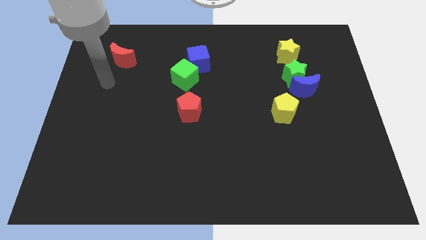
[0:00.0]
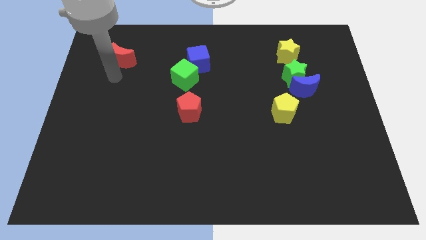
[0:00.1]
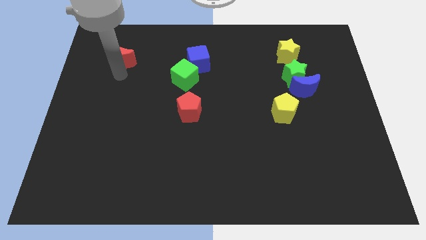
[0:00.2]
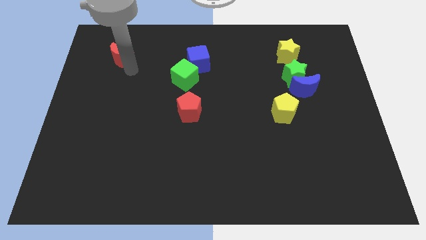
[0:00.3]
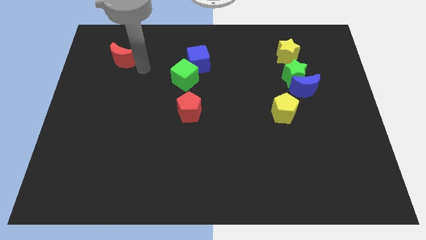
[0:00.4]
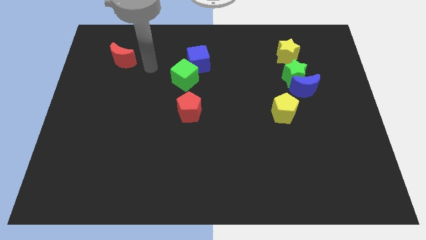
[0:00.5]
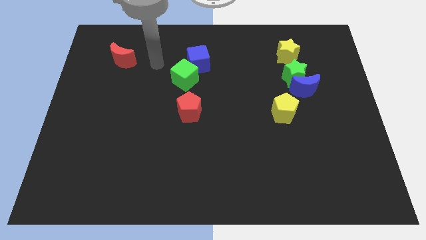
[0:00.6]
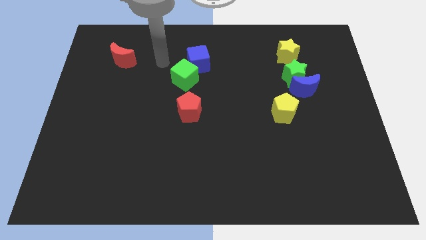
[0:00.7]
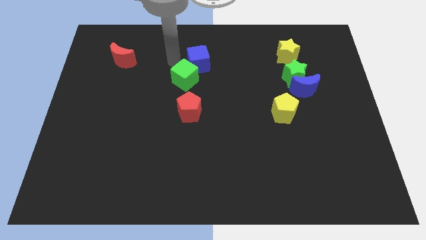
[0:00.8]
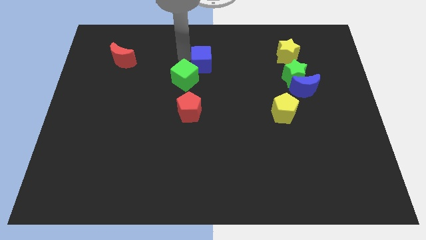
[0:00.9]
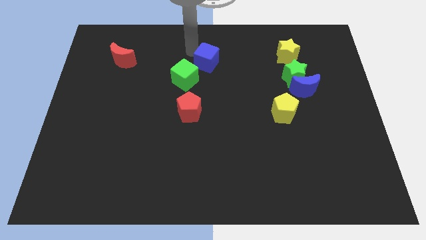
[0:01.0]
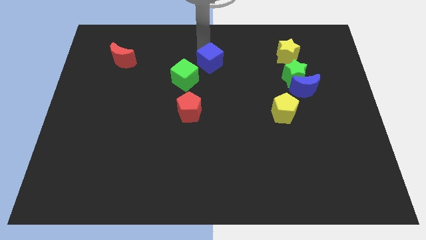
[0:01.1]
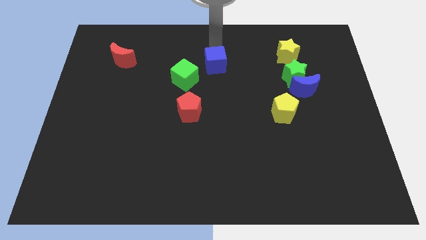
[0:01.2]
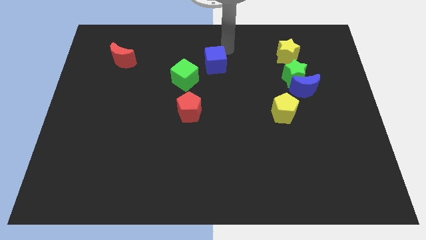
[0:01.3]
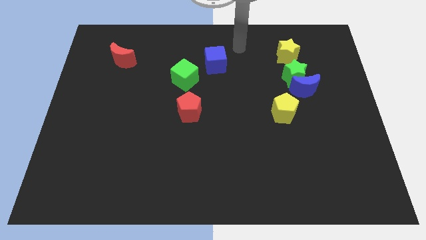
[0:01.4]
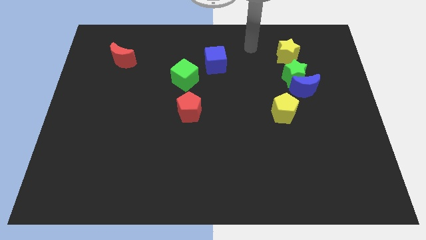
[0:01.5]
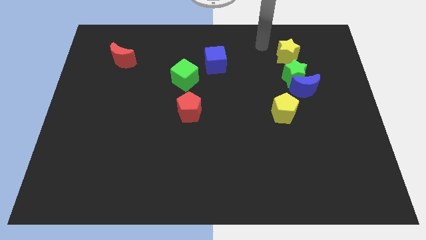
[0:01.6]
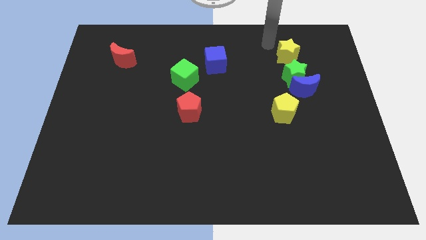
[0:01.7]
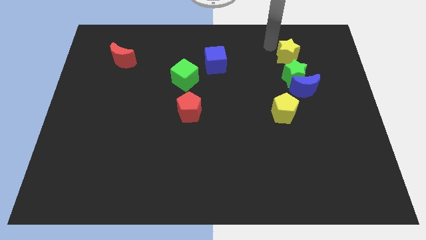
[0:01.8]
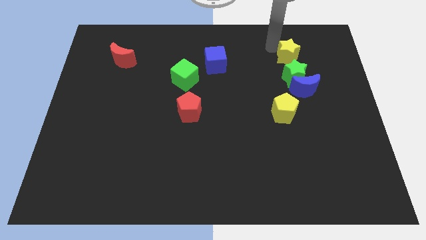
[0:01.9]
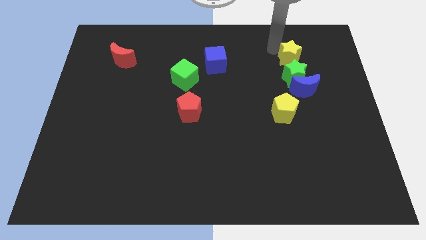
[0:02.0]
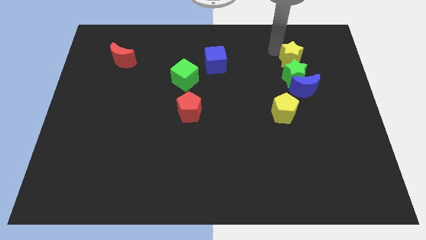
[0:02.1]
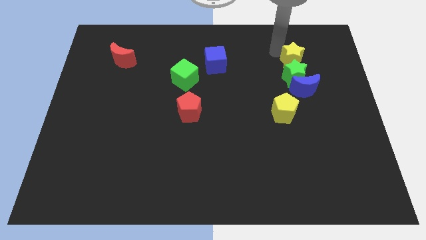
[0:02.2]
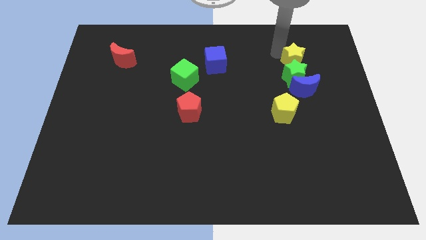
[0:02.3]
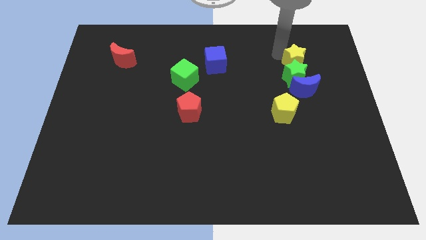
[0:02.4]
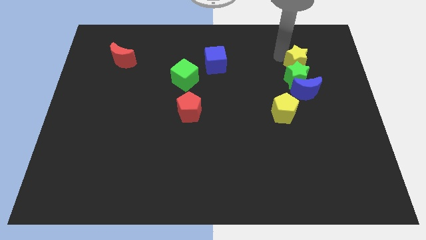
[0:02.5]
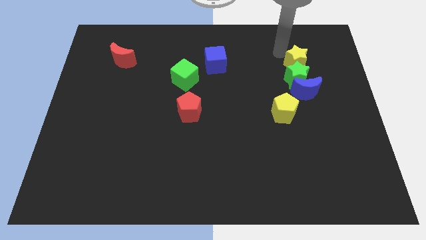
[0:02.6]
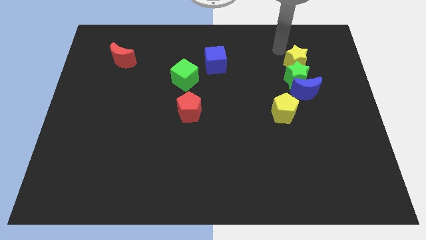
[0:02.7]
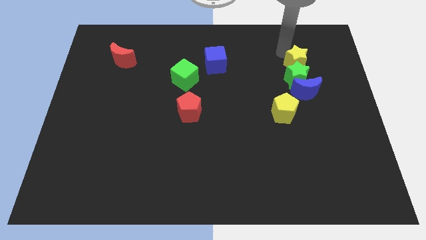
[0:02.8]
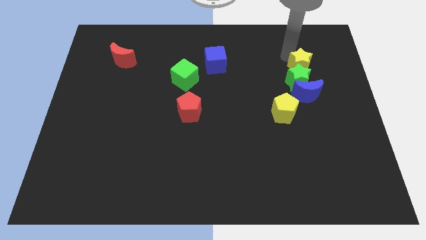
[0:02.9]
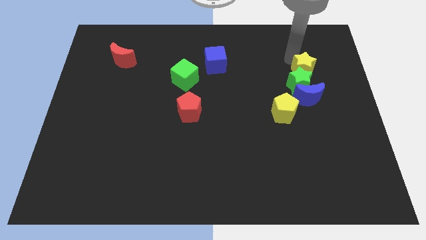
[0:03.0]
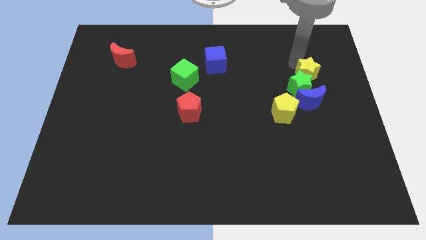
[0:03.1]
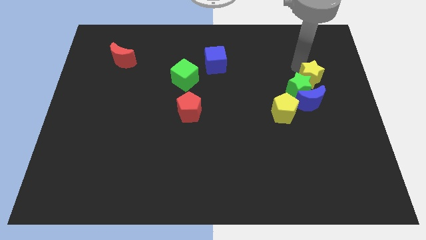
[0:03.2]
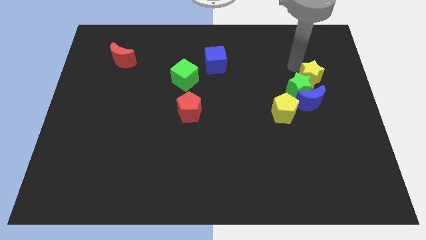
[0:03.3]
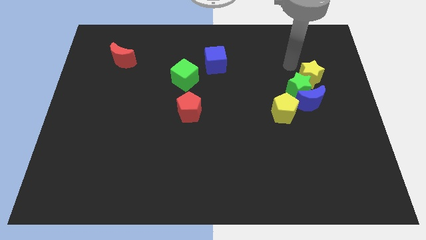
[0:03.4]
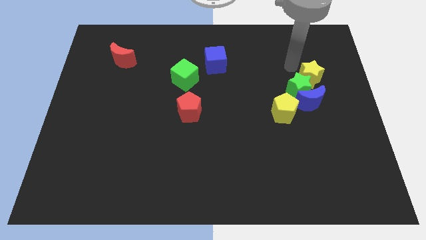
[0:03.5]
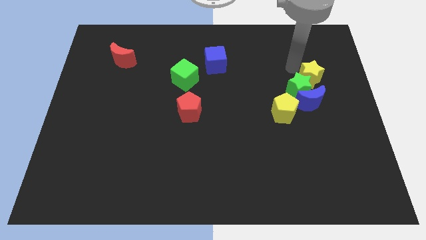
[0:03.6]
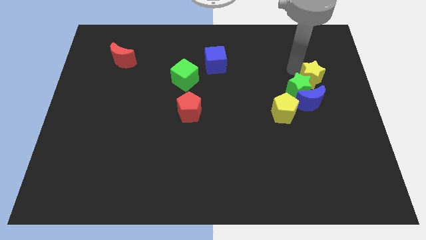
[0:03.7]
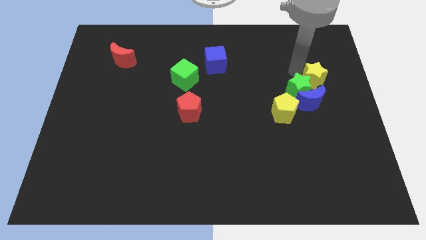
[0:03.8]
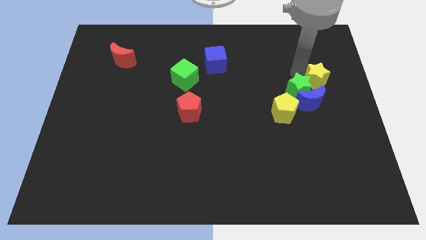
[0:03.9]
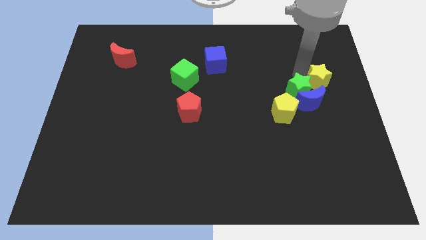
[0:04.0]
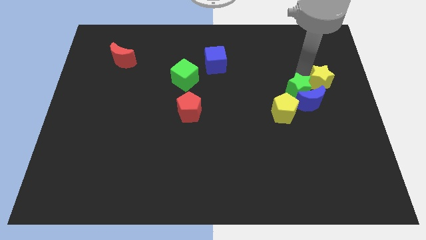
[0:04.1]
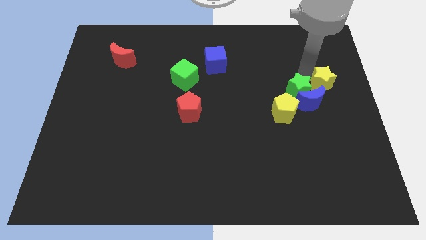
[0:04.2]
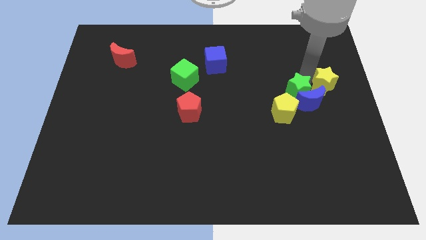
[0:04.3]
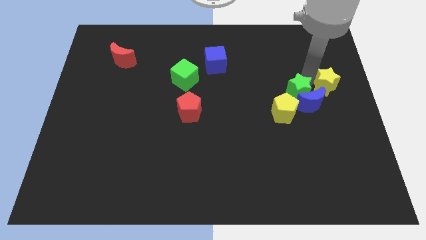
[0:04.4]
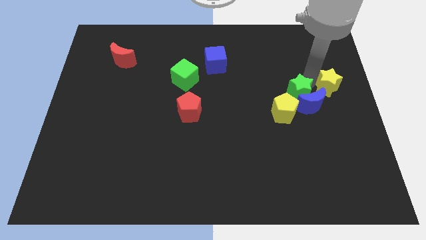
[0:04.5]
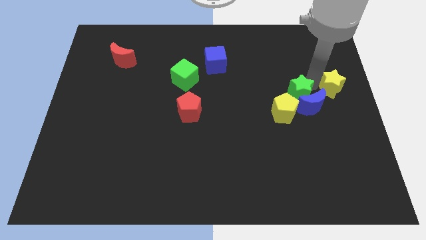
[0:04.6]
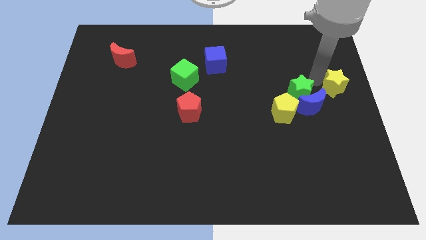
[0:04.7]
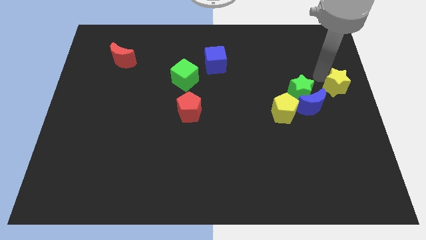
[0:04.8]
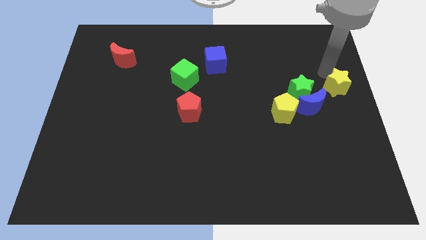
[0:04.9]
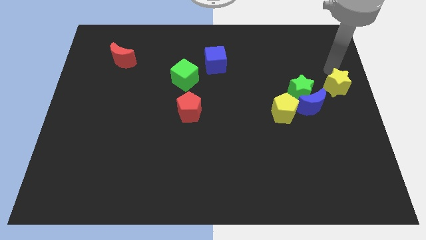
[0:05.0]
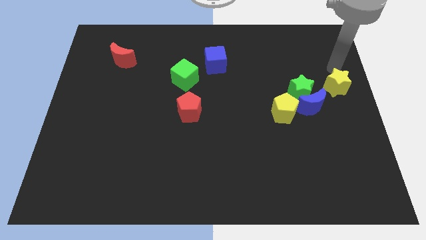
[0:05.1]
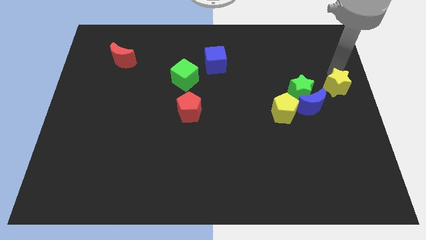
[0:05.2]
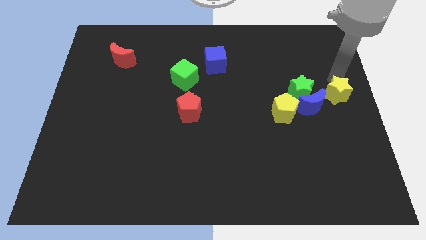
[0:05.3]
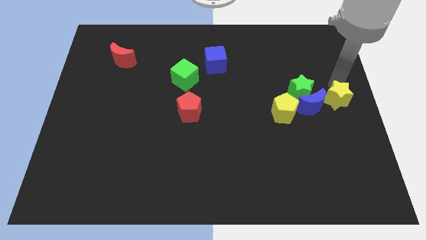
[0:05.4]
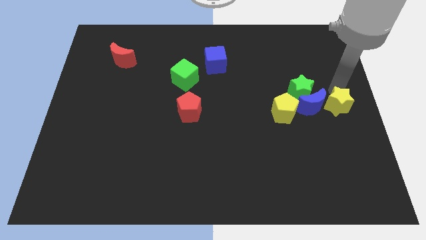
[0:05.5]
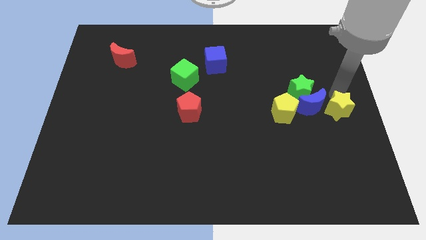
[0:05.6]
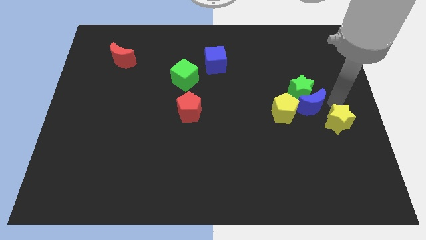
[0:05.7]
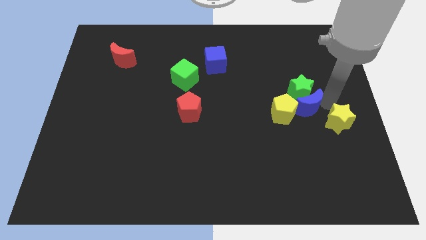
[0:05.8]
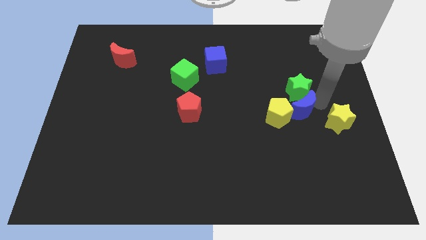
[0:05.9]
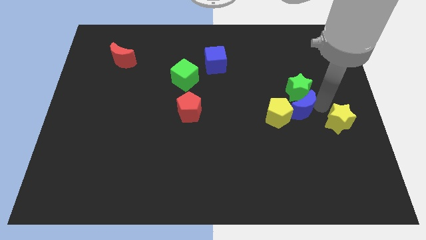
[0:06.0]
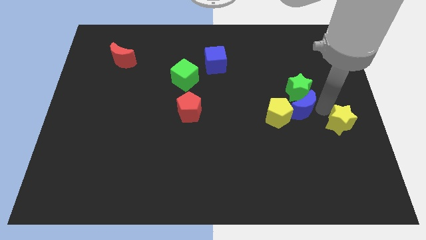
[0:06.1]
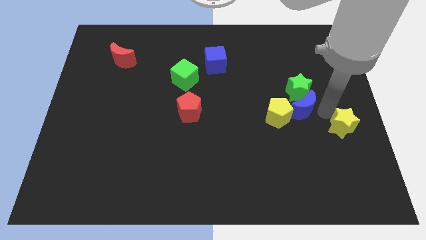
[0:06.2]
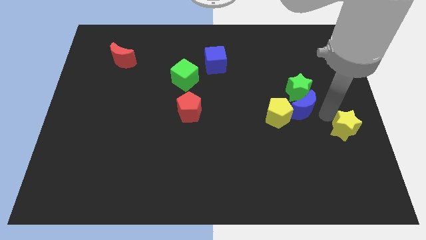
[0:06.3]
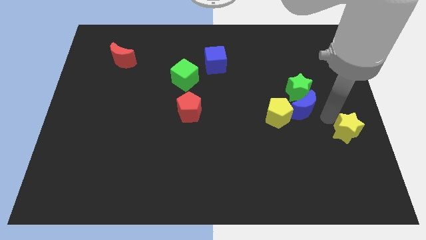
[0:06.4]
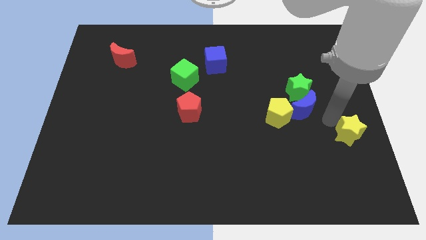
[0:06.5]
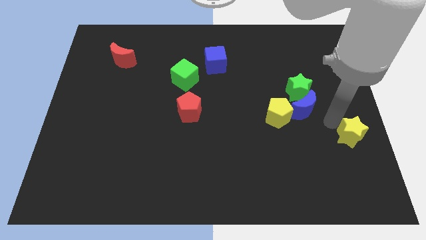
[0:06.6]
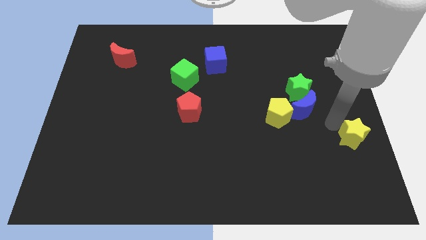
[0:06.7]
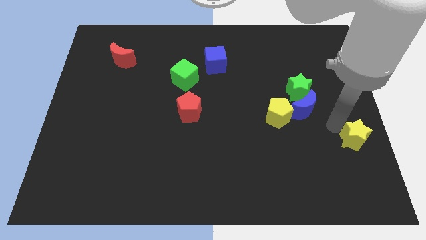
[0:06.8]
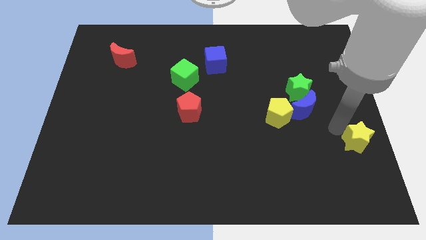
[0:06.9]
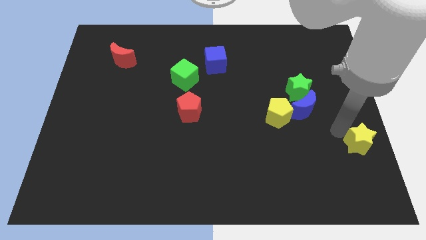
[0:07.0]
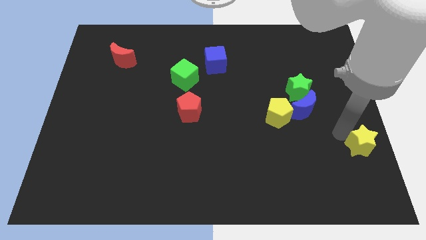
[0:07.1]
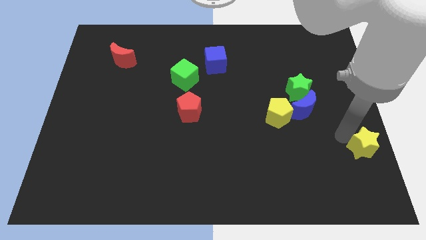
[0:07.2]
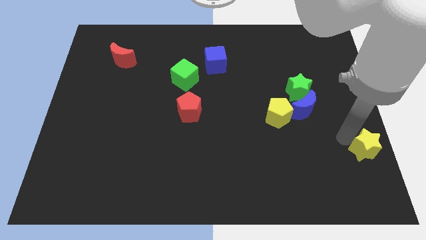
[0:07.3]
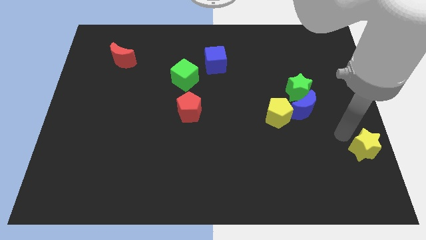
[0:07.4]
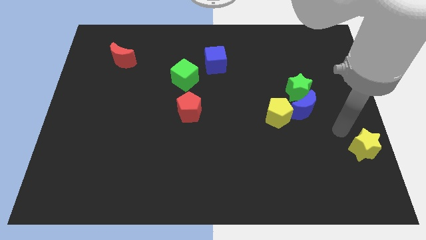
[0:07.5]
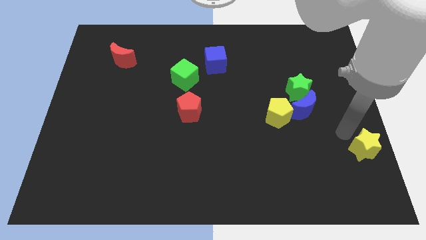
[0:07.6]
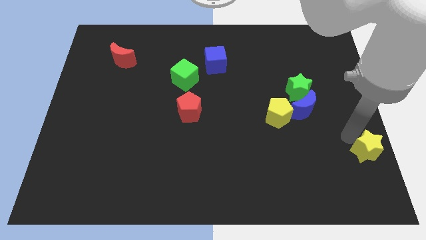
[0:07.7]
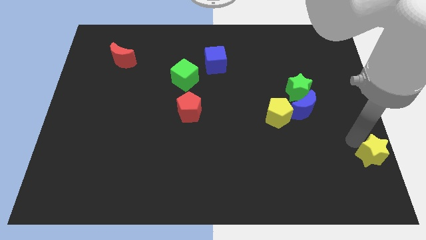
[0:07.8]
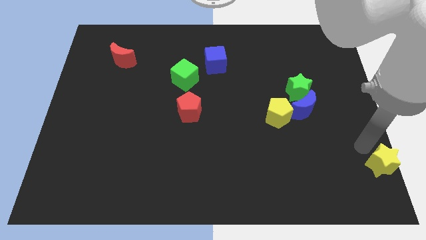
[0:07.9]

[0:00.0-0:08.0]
slide the yellow star to the bottom right
